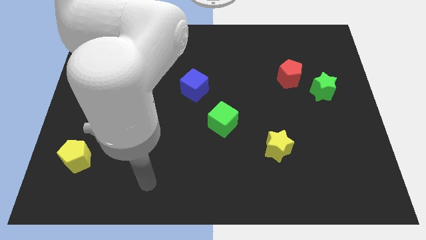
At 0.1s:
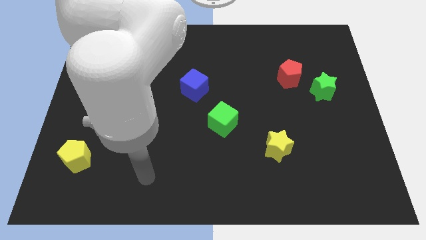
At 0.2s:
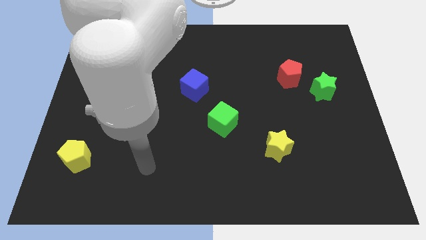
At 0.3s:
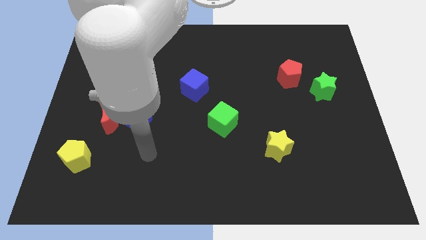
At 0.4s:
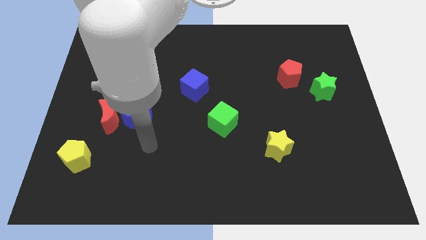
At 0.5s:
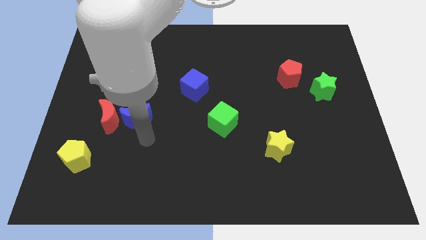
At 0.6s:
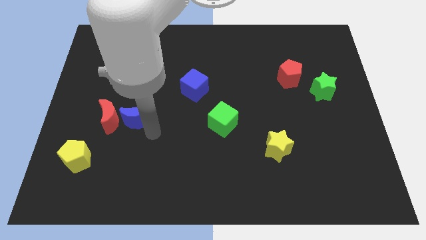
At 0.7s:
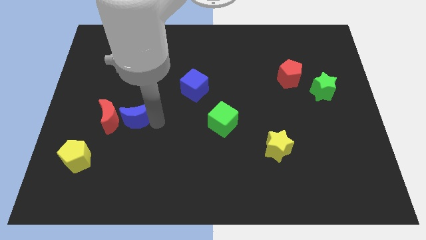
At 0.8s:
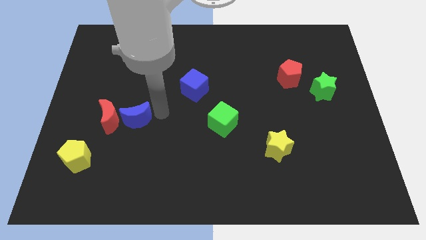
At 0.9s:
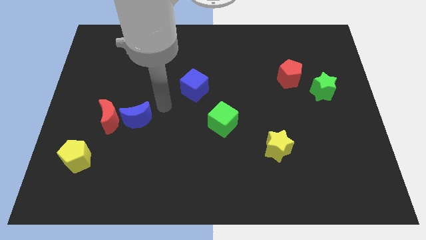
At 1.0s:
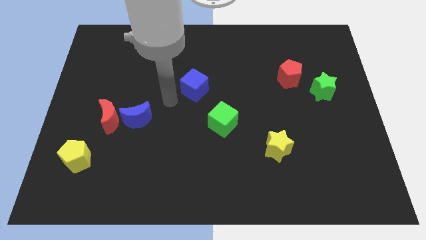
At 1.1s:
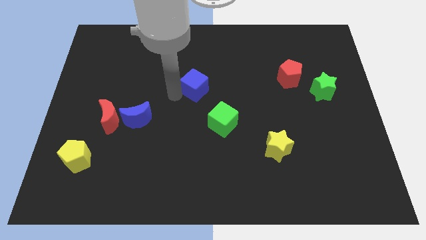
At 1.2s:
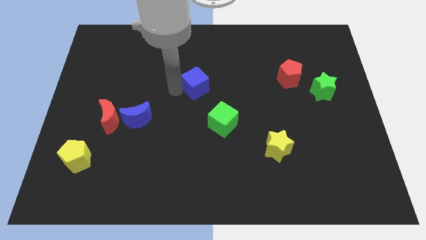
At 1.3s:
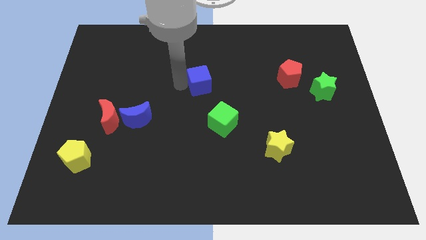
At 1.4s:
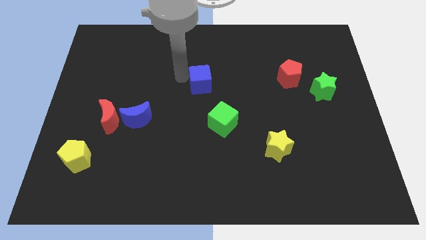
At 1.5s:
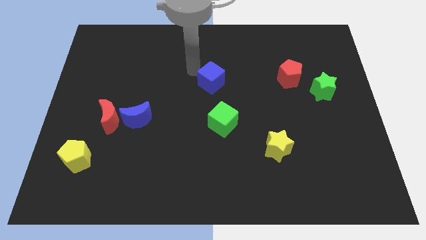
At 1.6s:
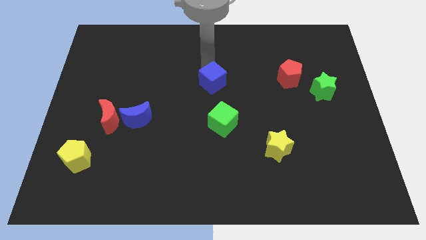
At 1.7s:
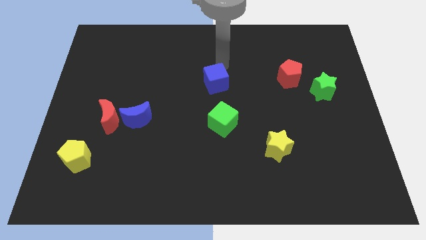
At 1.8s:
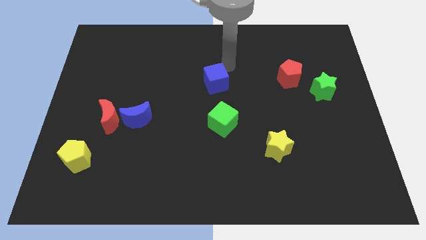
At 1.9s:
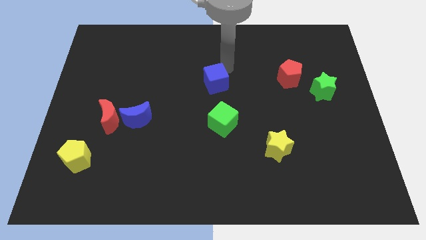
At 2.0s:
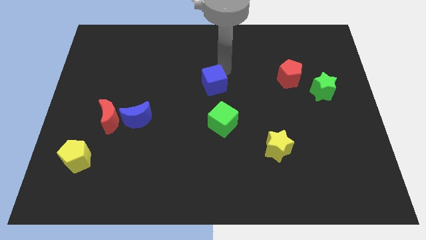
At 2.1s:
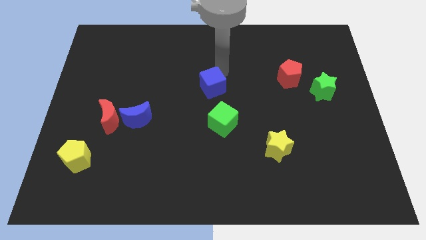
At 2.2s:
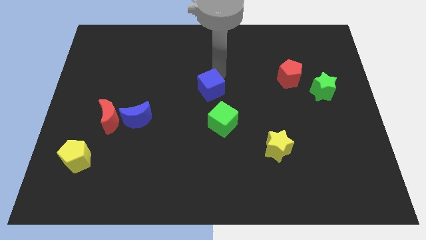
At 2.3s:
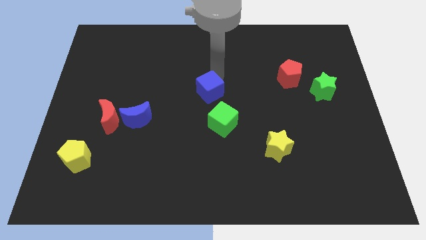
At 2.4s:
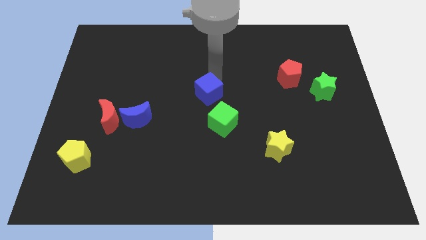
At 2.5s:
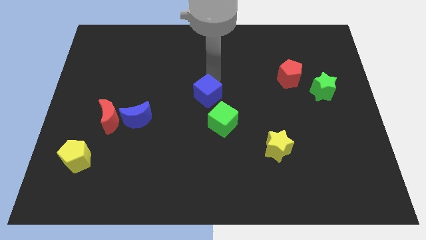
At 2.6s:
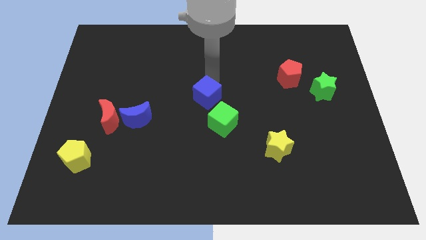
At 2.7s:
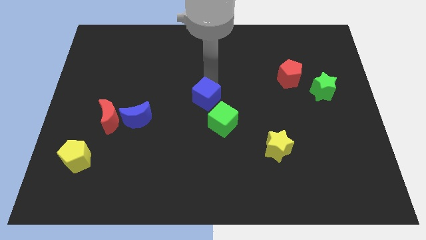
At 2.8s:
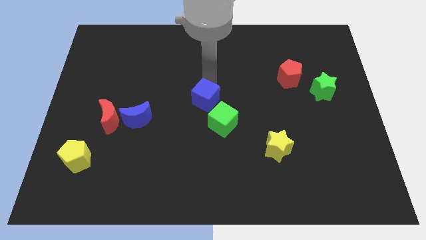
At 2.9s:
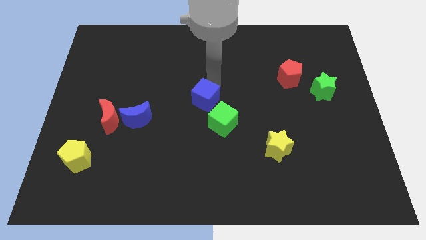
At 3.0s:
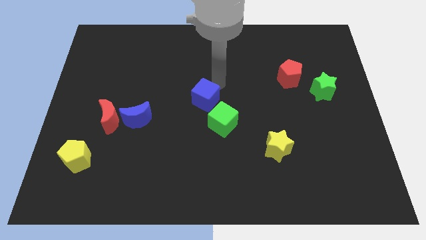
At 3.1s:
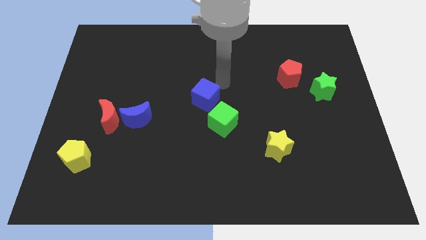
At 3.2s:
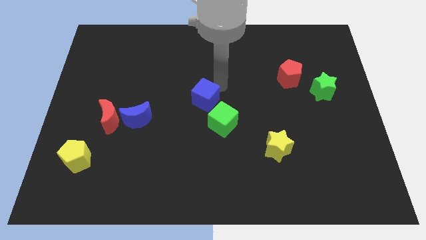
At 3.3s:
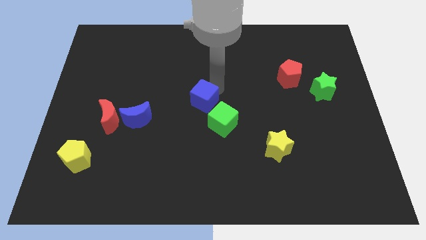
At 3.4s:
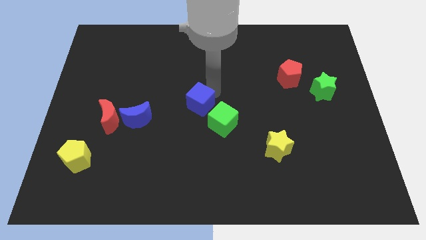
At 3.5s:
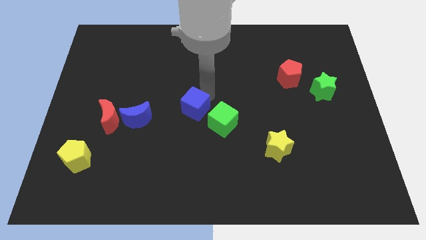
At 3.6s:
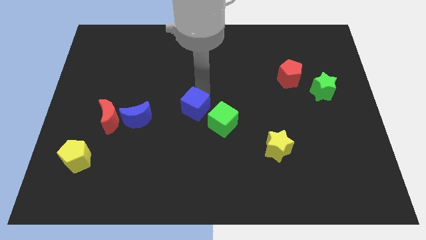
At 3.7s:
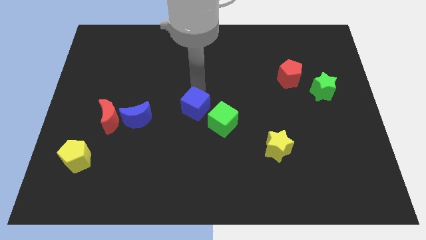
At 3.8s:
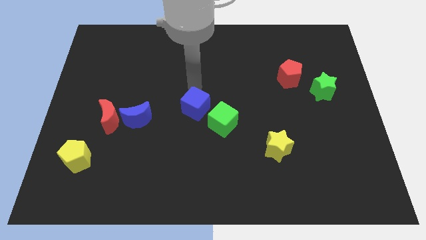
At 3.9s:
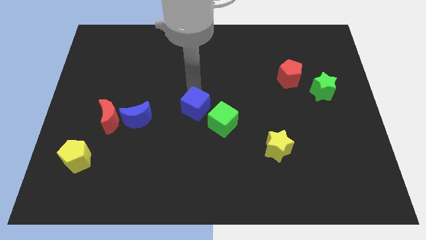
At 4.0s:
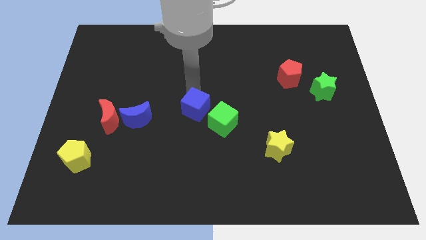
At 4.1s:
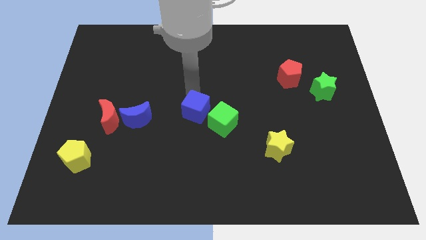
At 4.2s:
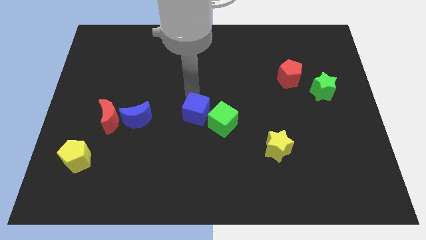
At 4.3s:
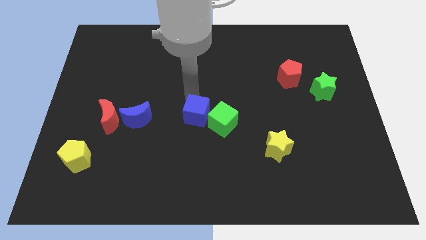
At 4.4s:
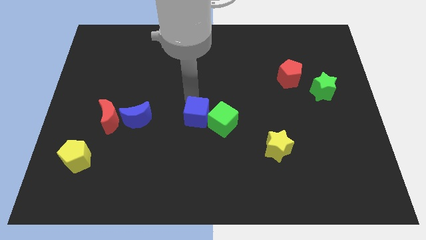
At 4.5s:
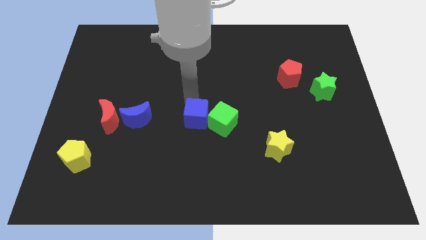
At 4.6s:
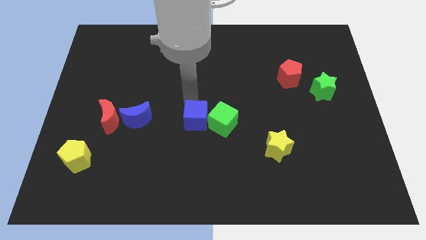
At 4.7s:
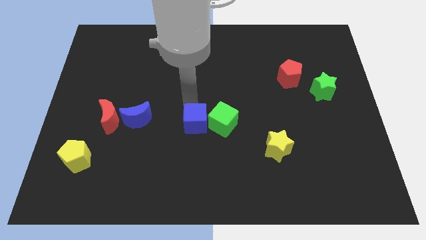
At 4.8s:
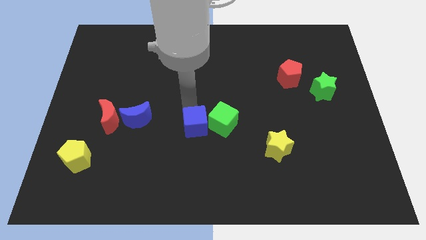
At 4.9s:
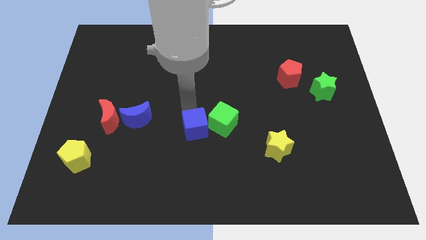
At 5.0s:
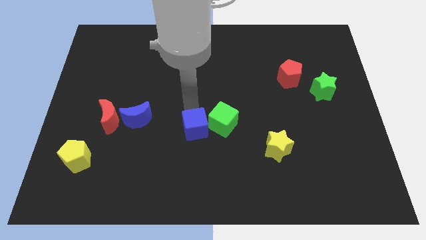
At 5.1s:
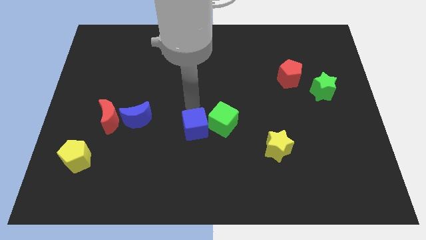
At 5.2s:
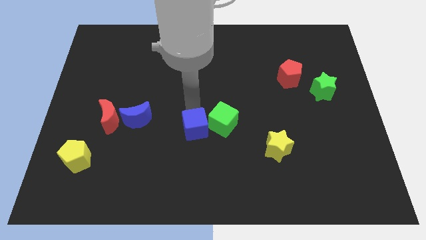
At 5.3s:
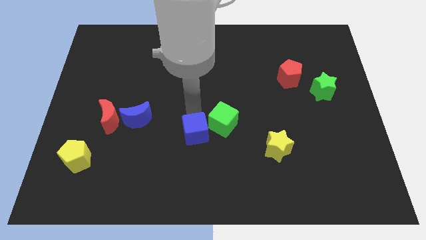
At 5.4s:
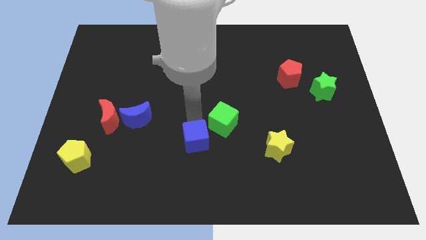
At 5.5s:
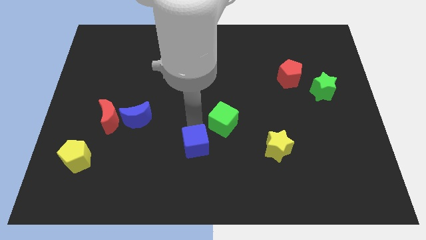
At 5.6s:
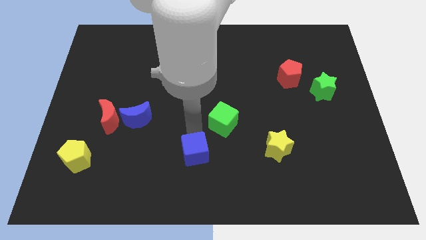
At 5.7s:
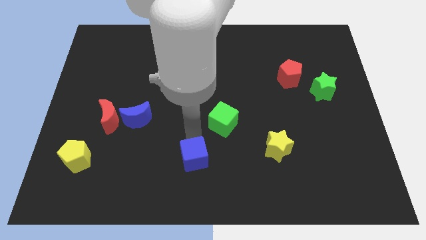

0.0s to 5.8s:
put the blue cube to the bottom

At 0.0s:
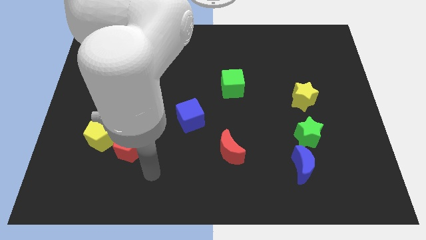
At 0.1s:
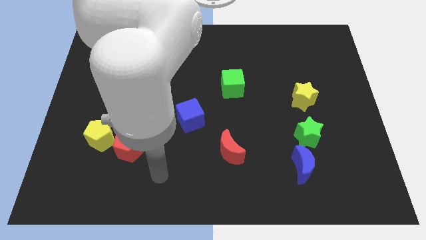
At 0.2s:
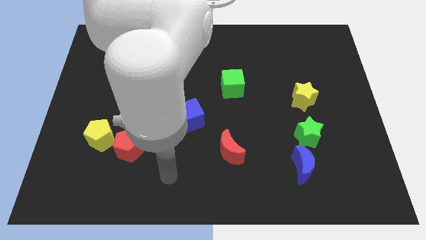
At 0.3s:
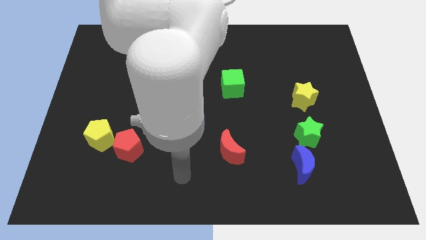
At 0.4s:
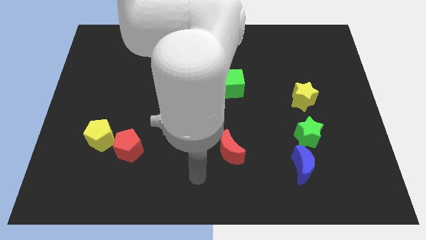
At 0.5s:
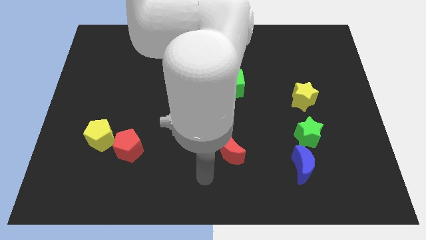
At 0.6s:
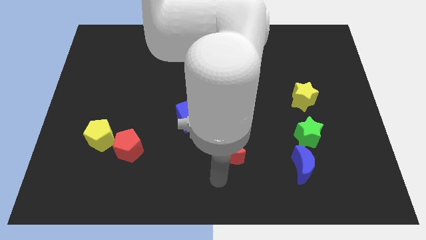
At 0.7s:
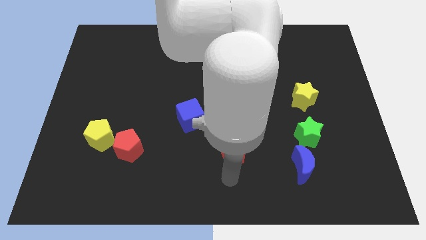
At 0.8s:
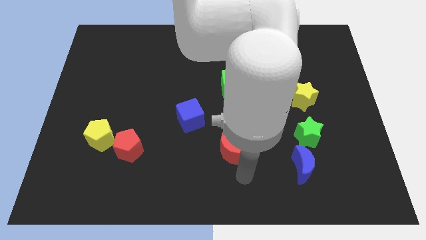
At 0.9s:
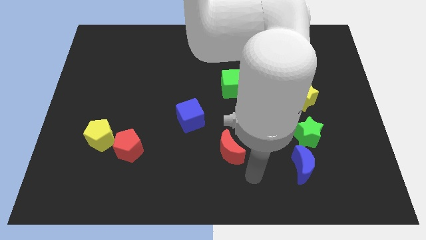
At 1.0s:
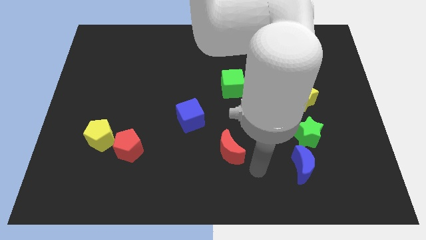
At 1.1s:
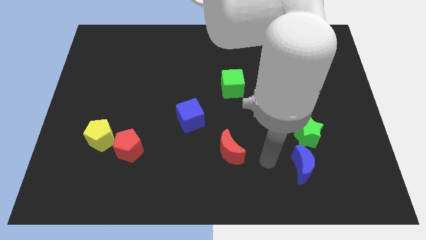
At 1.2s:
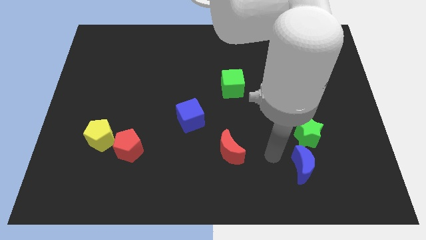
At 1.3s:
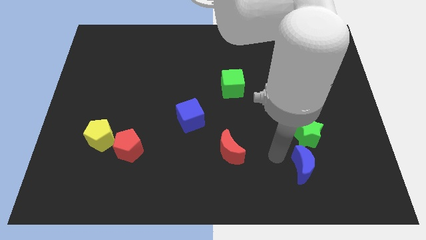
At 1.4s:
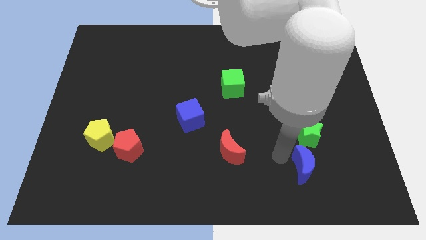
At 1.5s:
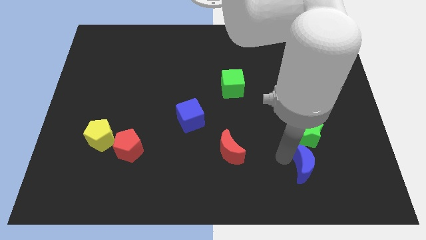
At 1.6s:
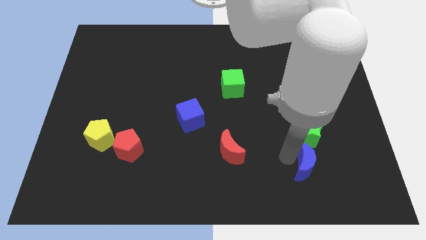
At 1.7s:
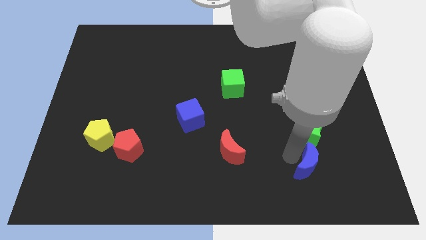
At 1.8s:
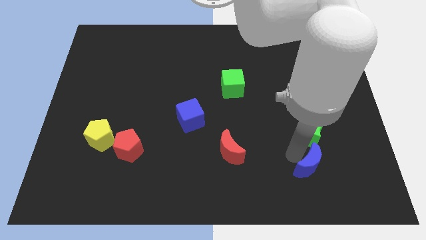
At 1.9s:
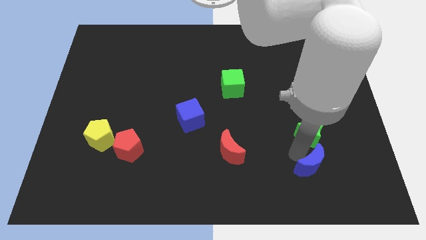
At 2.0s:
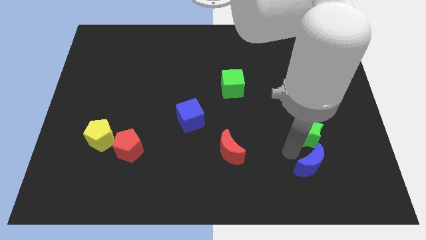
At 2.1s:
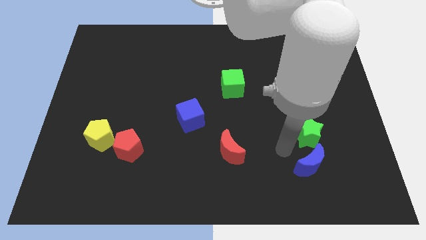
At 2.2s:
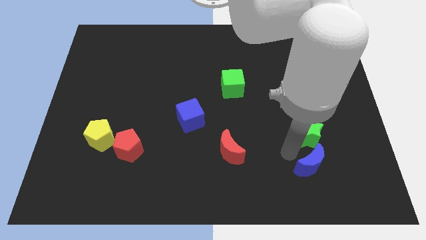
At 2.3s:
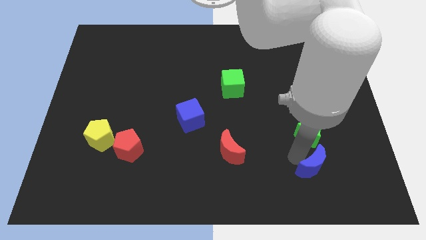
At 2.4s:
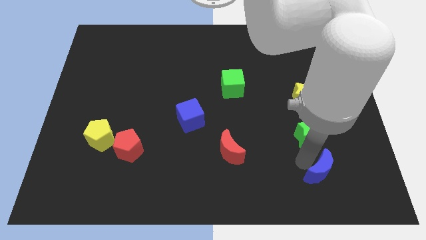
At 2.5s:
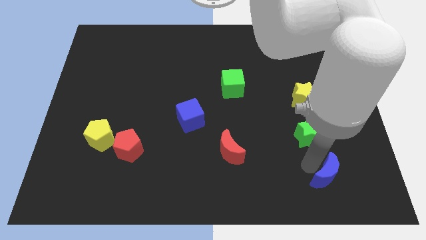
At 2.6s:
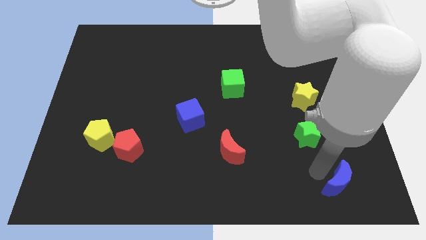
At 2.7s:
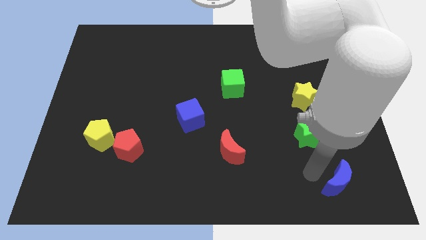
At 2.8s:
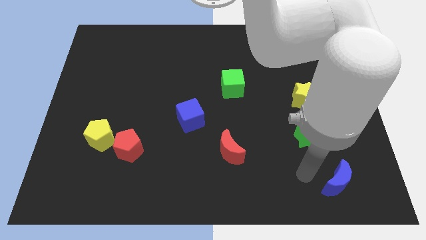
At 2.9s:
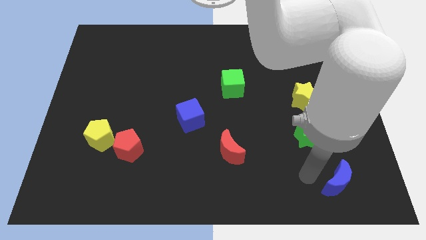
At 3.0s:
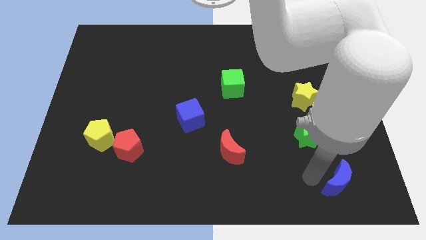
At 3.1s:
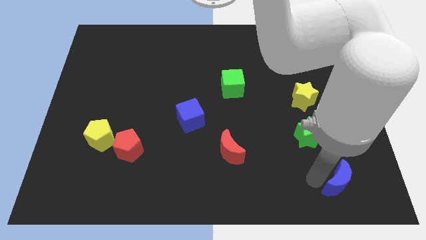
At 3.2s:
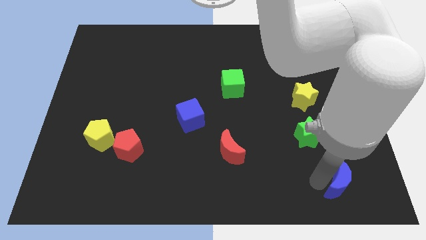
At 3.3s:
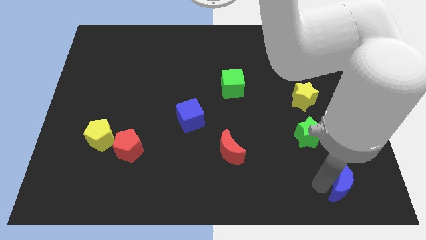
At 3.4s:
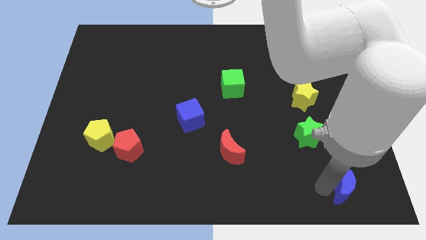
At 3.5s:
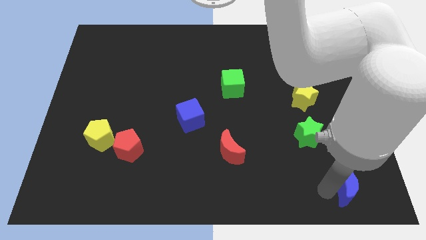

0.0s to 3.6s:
put the blue moon to the bottom right corner
